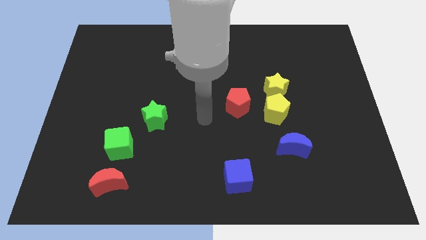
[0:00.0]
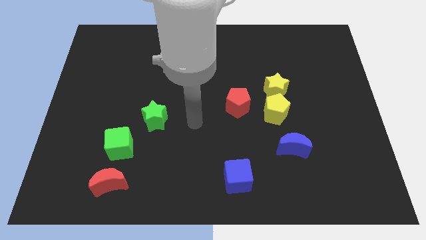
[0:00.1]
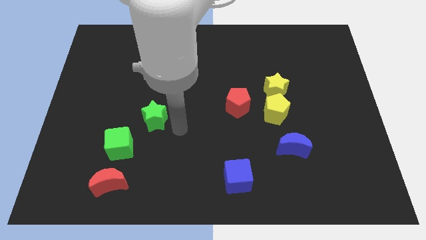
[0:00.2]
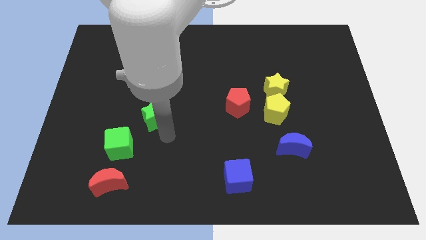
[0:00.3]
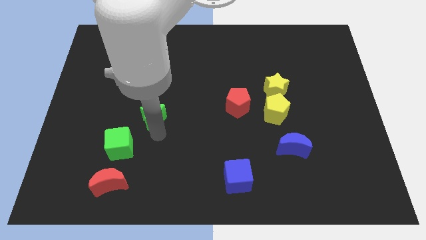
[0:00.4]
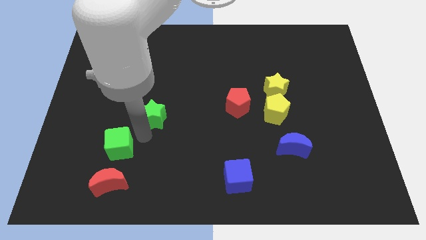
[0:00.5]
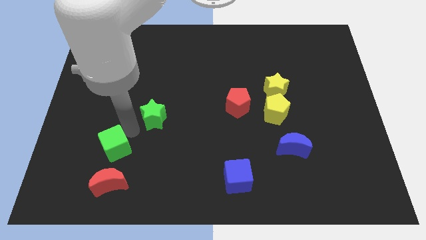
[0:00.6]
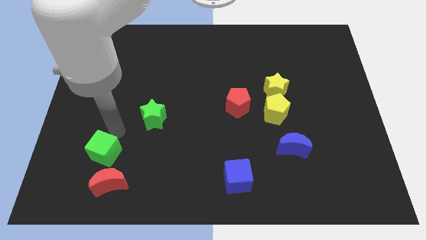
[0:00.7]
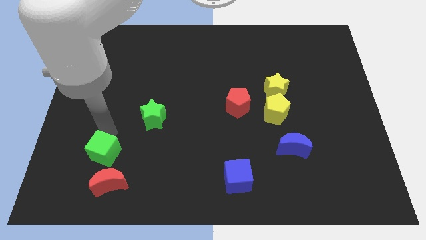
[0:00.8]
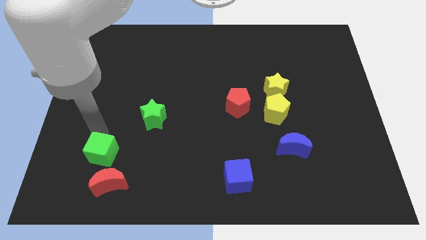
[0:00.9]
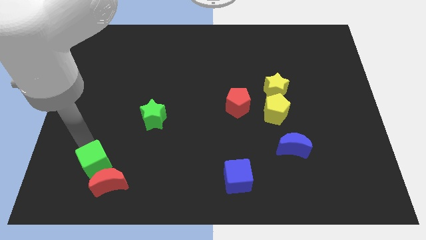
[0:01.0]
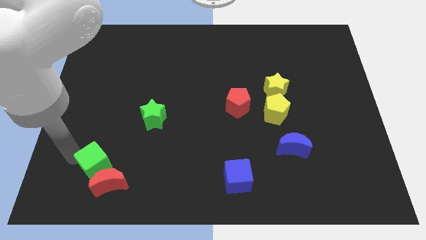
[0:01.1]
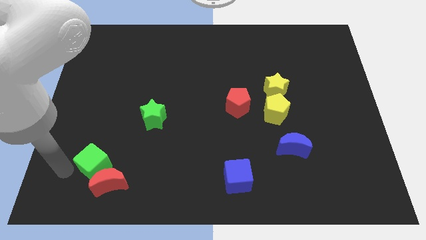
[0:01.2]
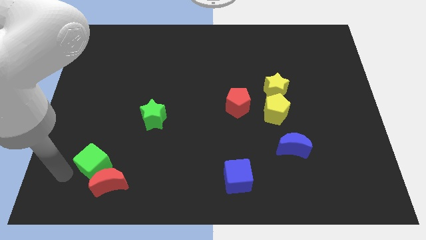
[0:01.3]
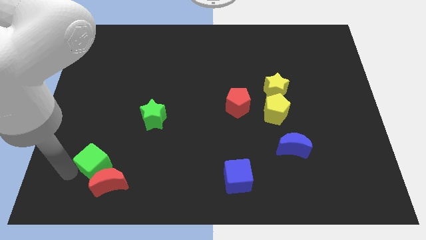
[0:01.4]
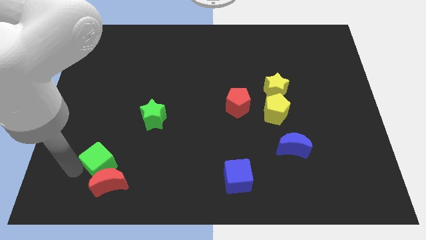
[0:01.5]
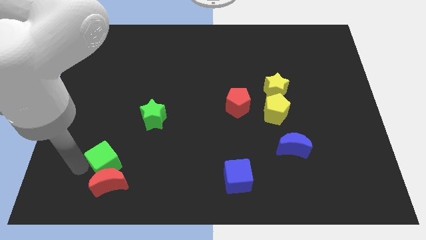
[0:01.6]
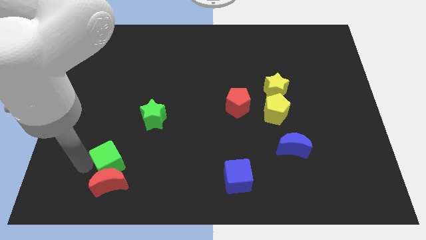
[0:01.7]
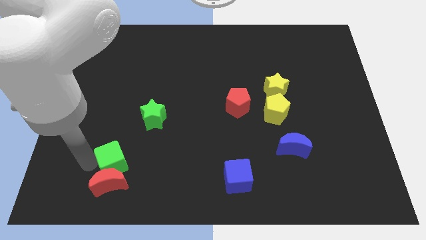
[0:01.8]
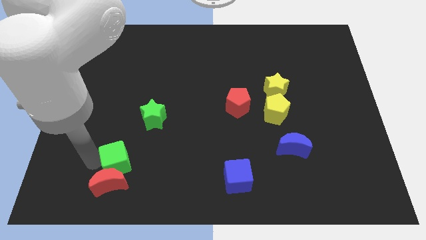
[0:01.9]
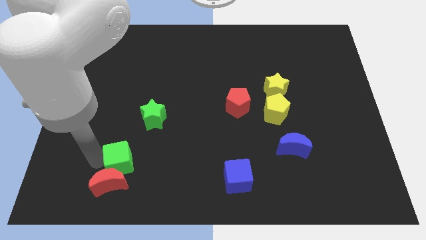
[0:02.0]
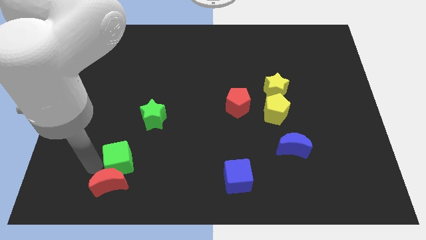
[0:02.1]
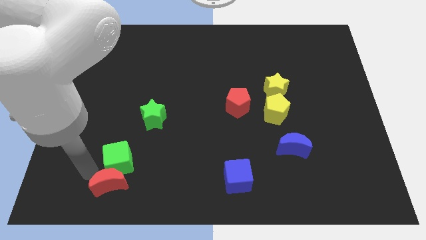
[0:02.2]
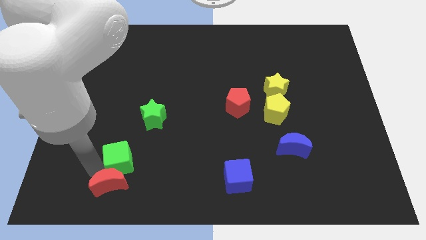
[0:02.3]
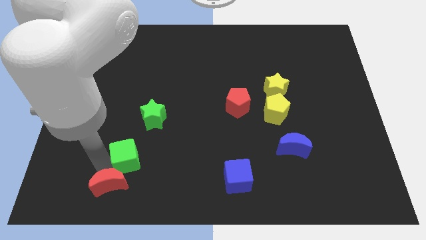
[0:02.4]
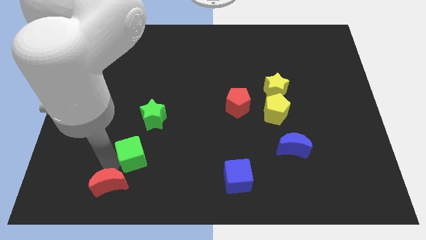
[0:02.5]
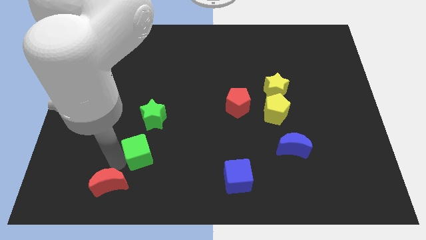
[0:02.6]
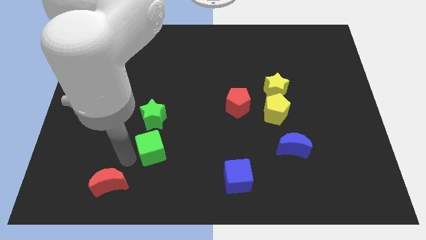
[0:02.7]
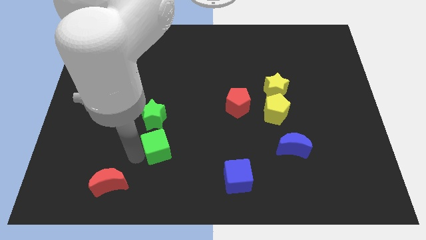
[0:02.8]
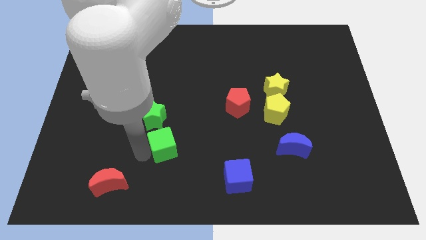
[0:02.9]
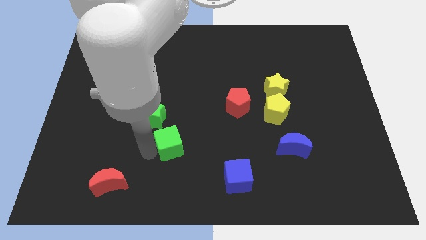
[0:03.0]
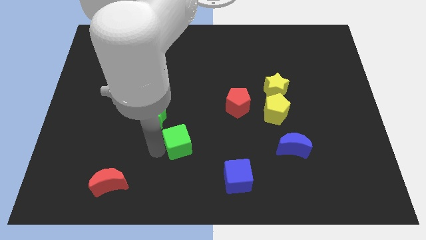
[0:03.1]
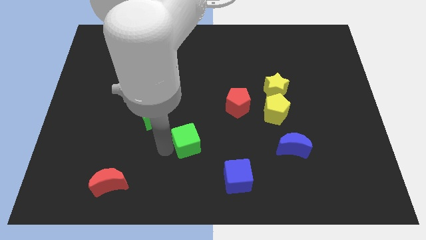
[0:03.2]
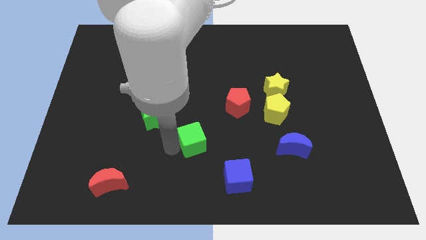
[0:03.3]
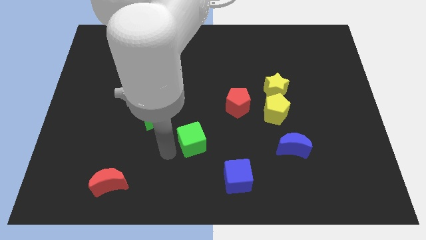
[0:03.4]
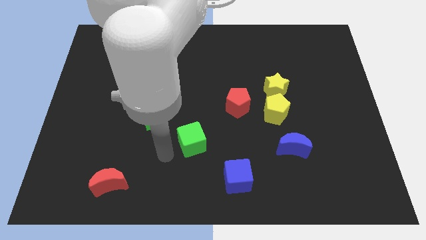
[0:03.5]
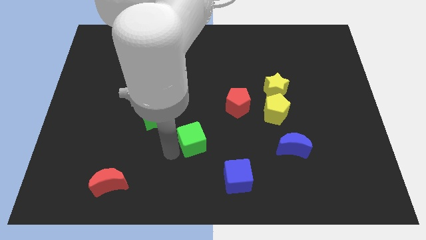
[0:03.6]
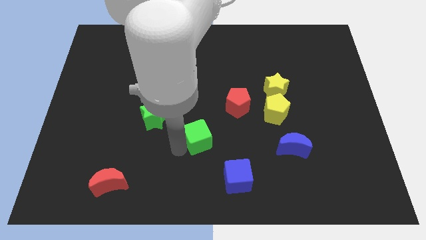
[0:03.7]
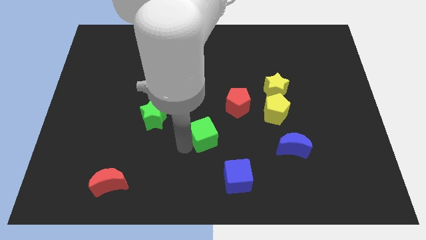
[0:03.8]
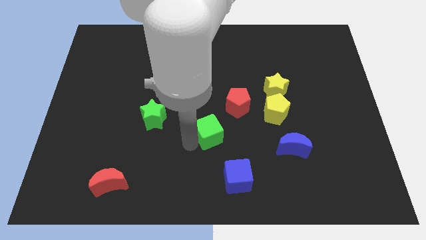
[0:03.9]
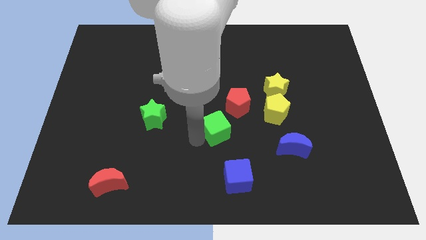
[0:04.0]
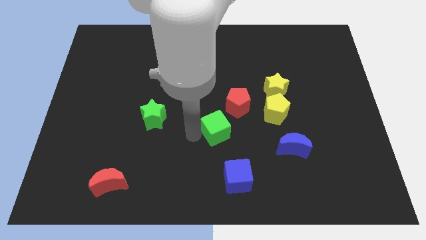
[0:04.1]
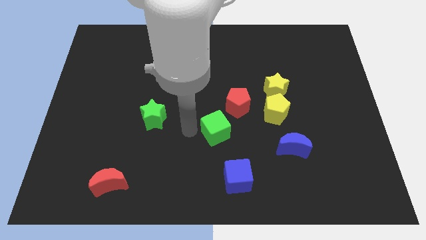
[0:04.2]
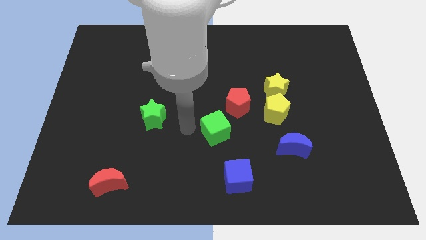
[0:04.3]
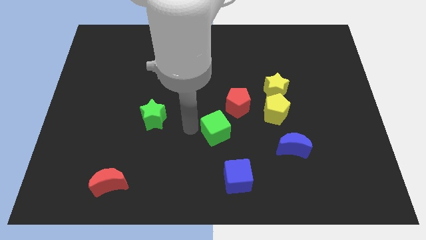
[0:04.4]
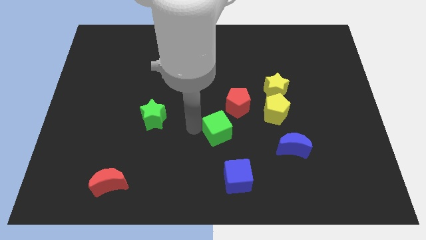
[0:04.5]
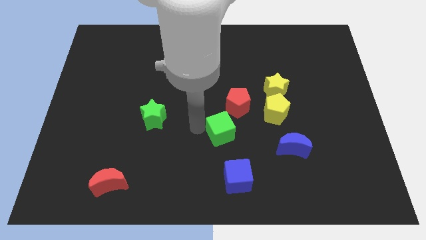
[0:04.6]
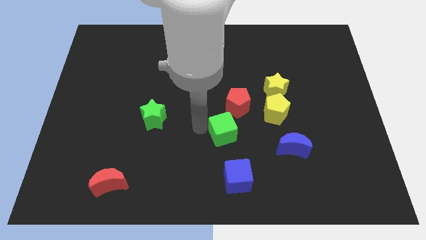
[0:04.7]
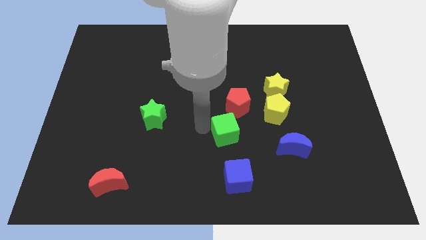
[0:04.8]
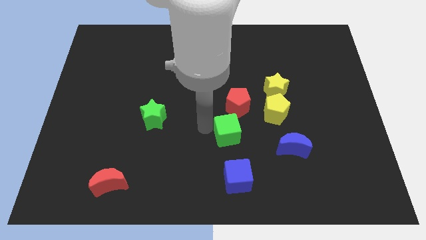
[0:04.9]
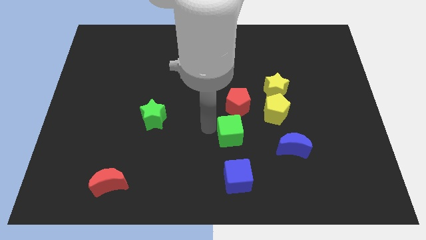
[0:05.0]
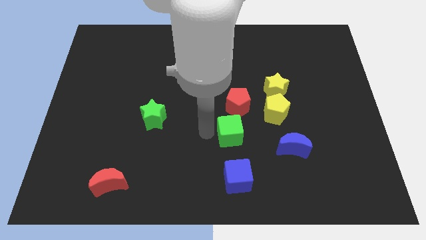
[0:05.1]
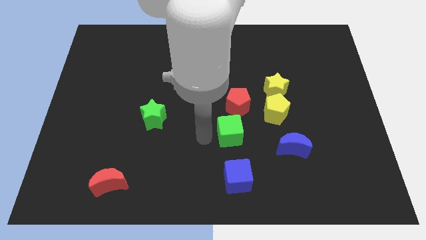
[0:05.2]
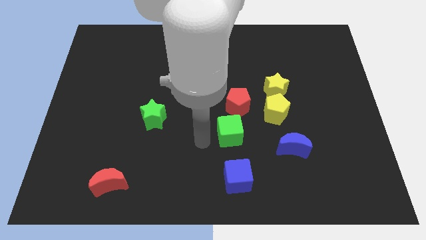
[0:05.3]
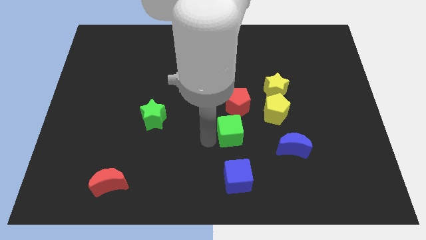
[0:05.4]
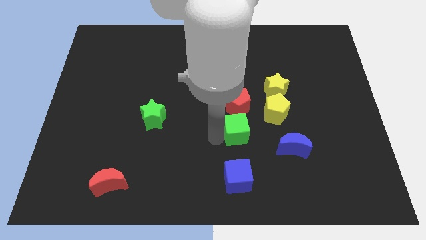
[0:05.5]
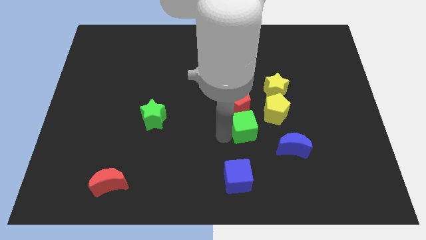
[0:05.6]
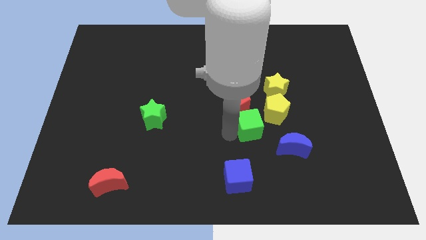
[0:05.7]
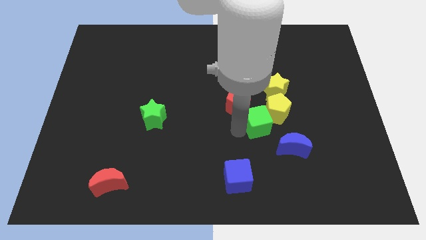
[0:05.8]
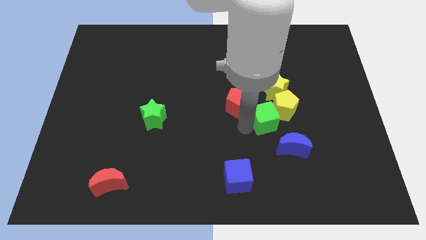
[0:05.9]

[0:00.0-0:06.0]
put the green cube to the right side of the red pentagon

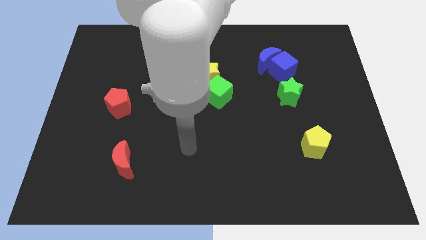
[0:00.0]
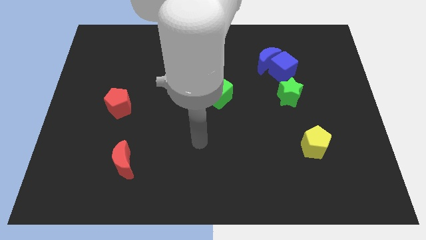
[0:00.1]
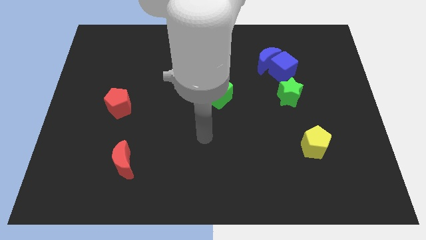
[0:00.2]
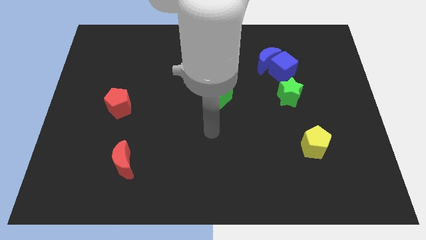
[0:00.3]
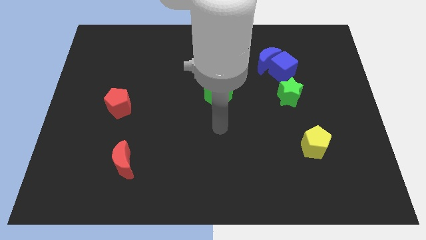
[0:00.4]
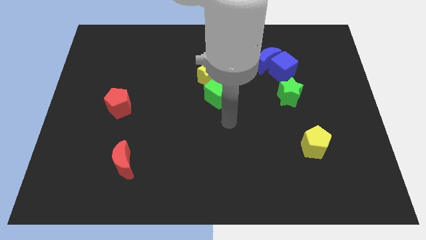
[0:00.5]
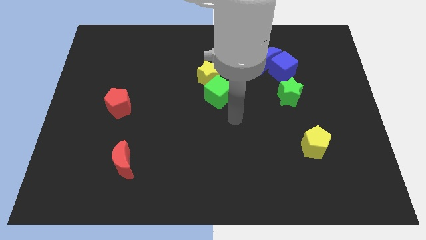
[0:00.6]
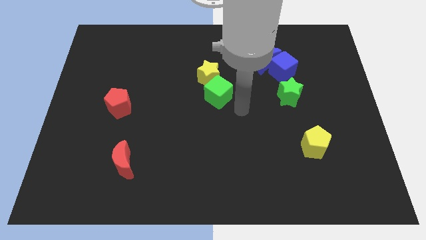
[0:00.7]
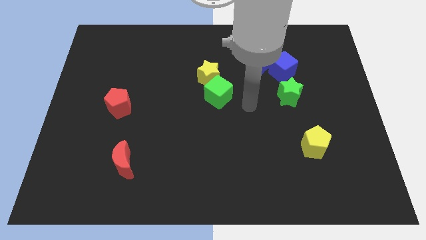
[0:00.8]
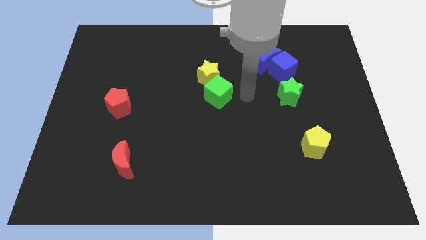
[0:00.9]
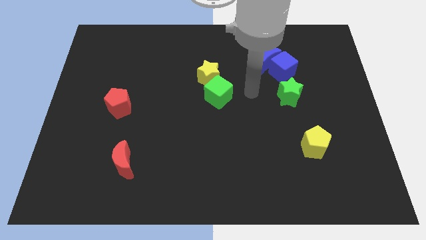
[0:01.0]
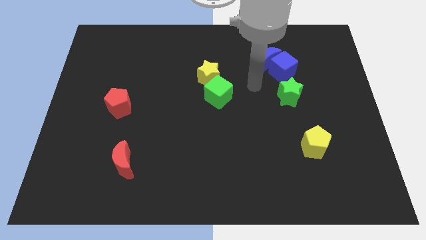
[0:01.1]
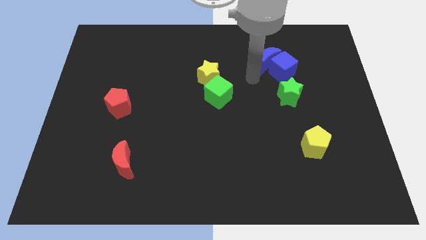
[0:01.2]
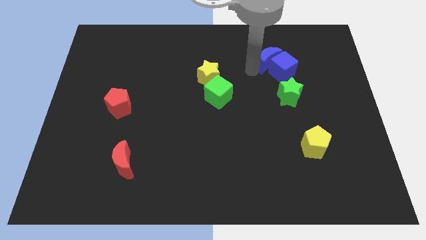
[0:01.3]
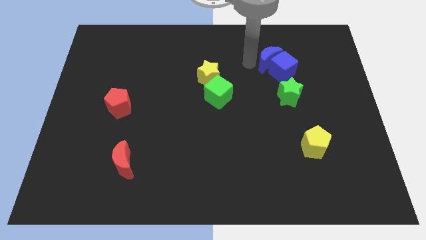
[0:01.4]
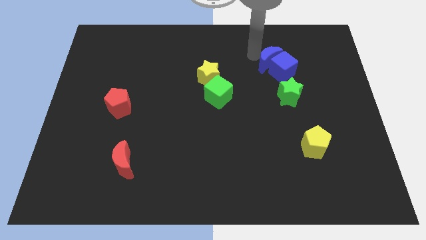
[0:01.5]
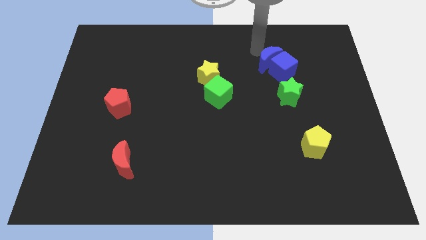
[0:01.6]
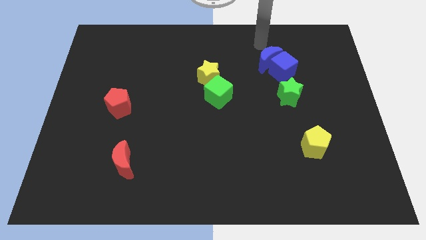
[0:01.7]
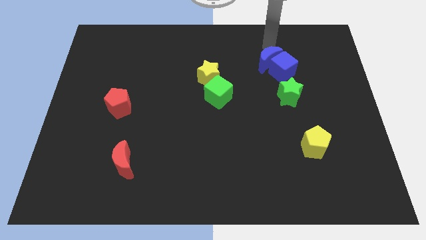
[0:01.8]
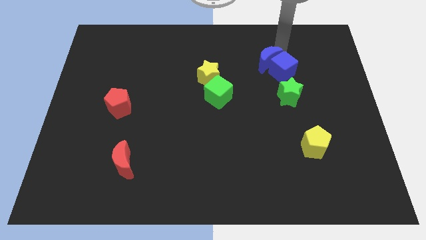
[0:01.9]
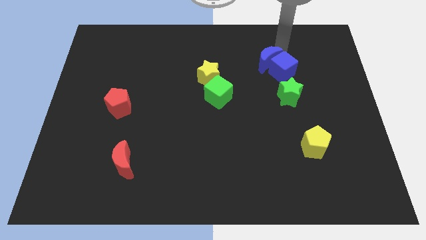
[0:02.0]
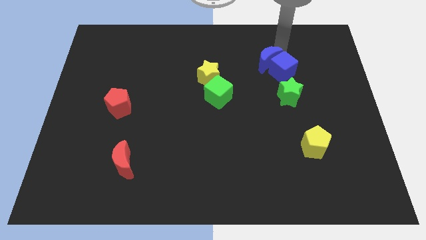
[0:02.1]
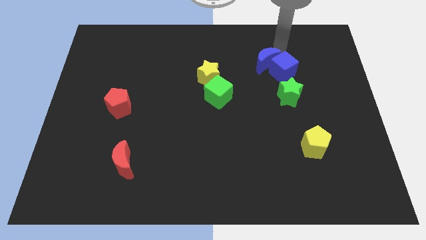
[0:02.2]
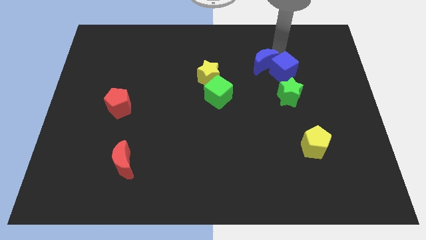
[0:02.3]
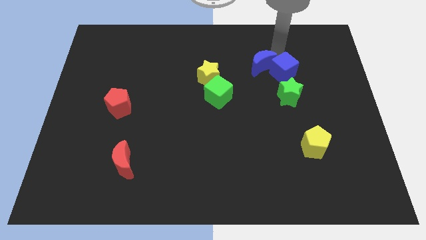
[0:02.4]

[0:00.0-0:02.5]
push the blue moon just right of the yellow star
